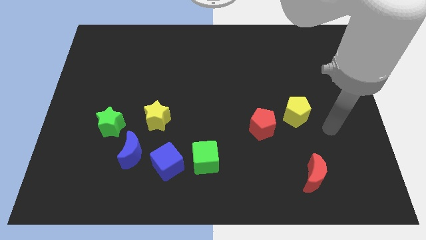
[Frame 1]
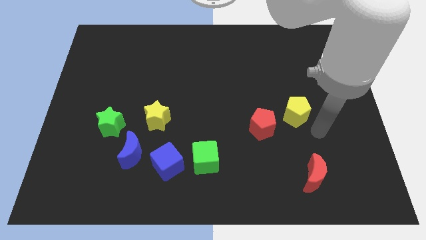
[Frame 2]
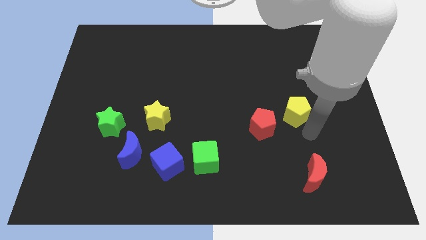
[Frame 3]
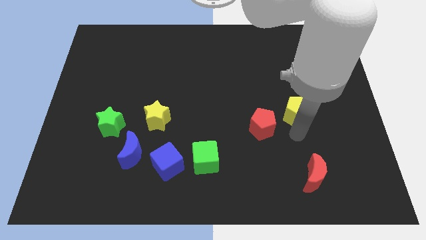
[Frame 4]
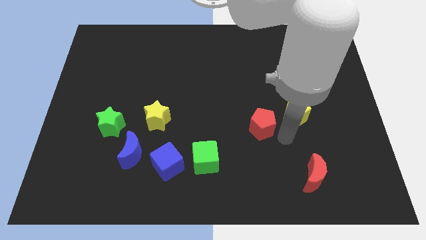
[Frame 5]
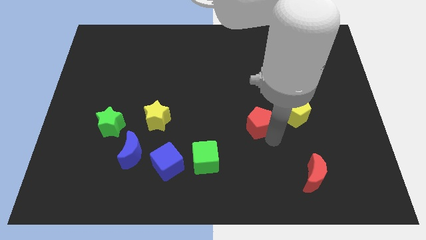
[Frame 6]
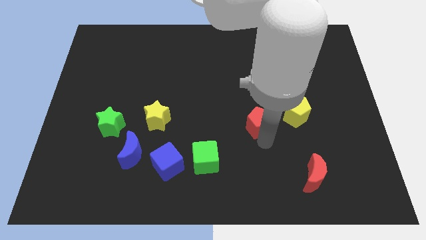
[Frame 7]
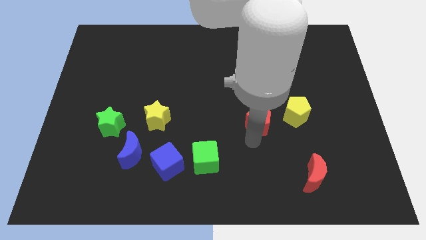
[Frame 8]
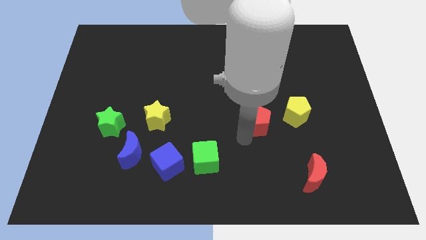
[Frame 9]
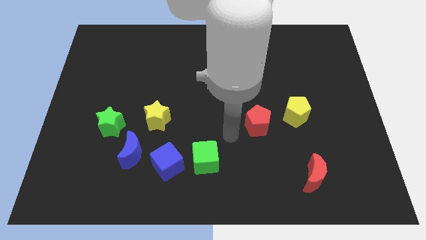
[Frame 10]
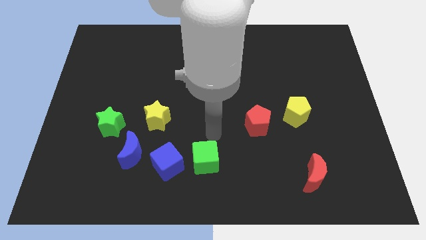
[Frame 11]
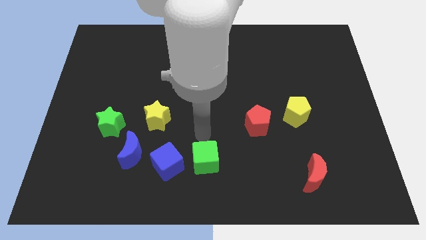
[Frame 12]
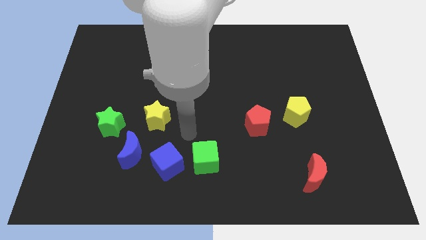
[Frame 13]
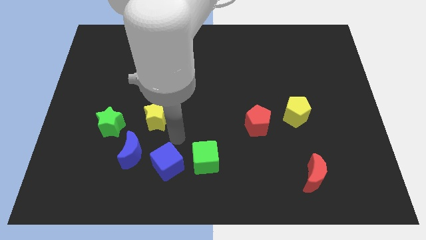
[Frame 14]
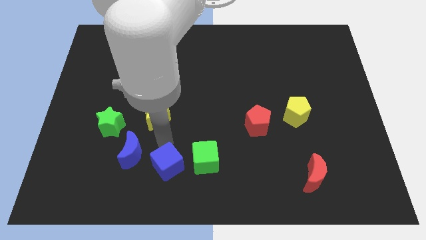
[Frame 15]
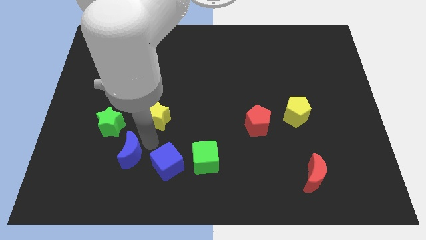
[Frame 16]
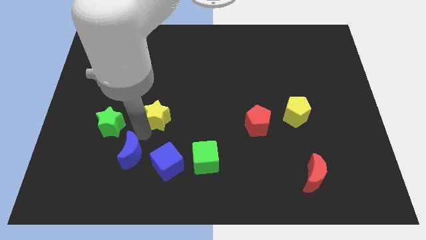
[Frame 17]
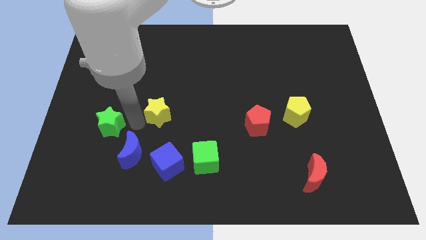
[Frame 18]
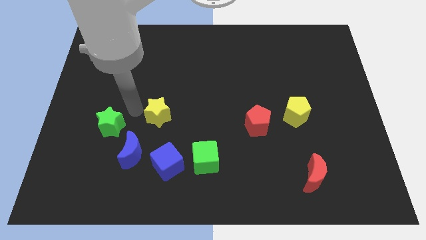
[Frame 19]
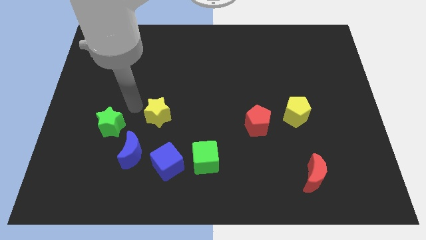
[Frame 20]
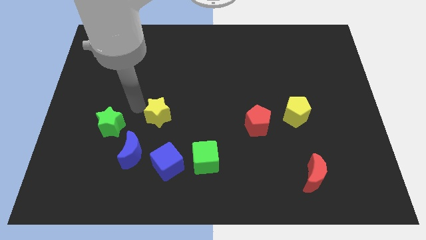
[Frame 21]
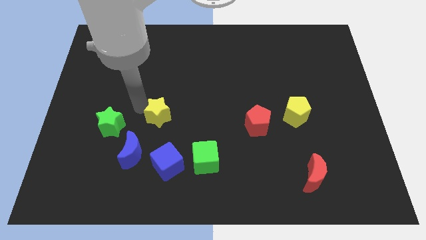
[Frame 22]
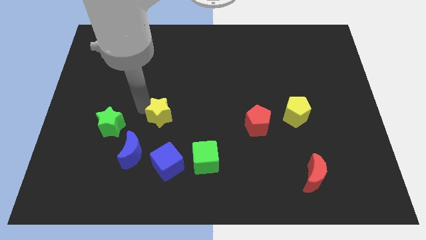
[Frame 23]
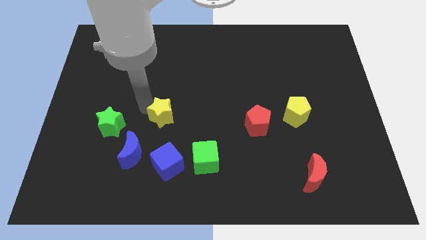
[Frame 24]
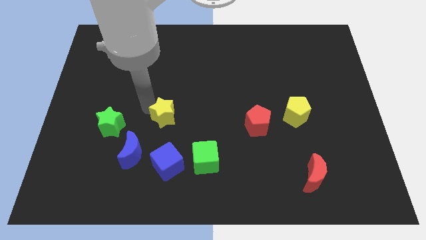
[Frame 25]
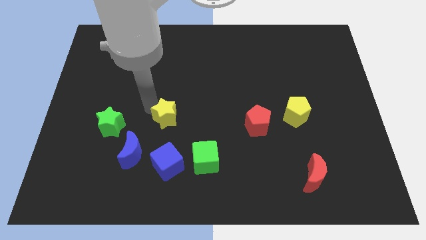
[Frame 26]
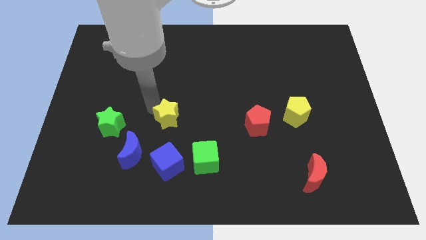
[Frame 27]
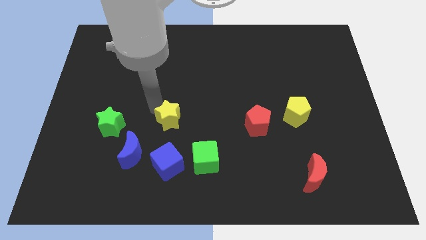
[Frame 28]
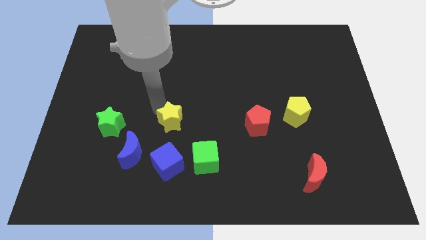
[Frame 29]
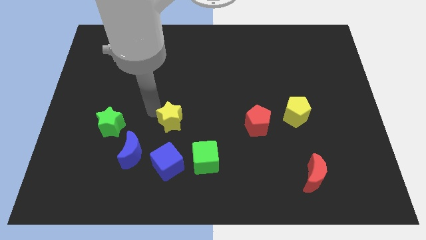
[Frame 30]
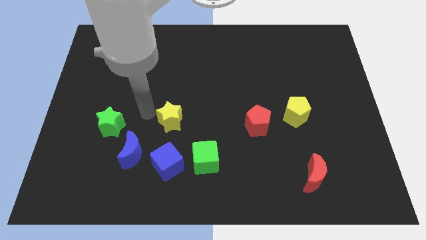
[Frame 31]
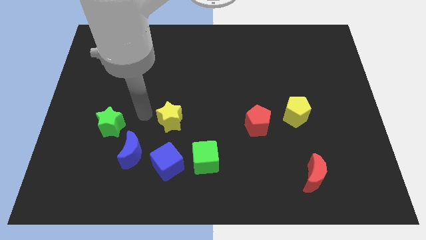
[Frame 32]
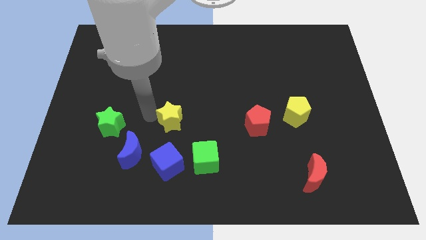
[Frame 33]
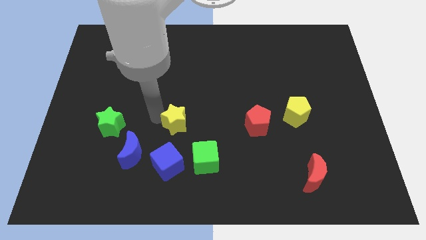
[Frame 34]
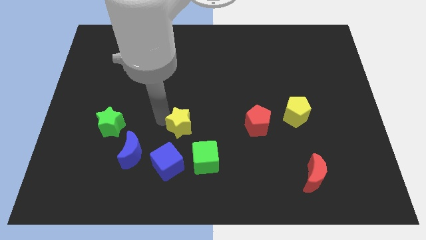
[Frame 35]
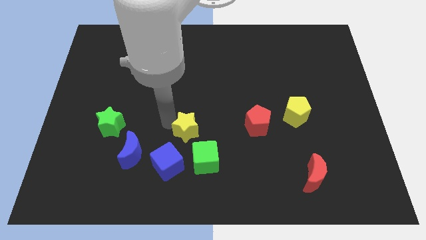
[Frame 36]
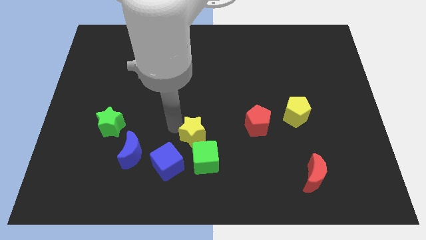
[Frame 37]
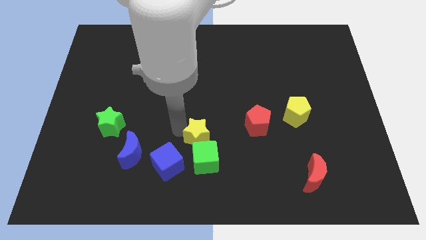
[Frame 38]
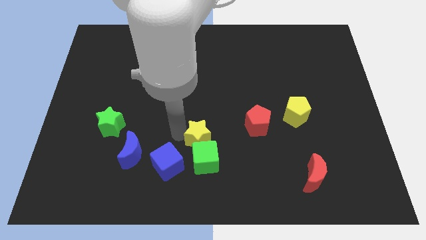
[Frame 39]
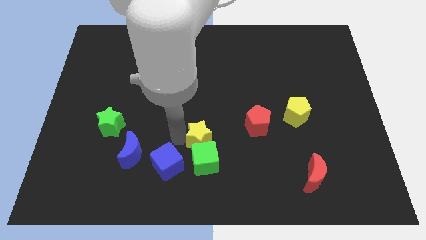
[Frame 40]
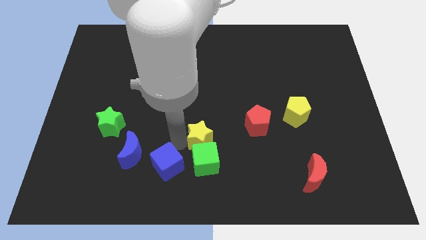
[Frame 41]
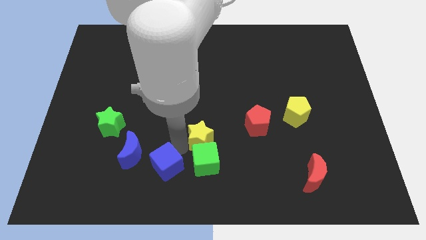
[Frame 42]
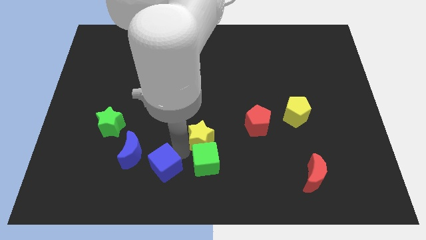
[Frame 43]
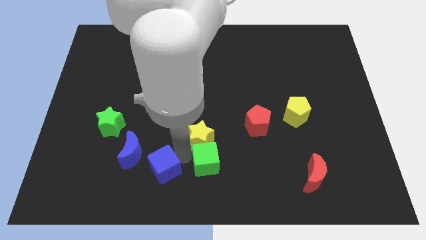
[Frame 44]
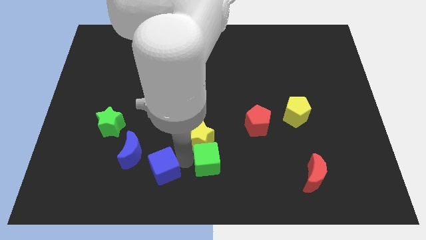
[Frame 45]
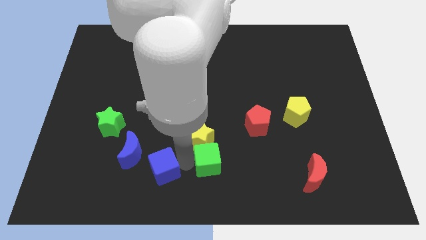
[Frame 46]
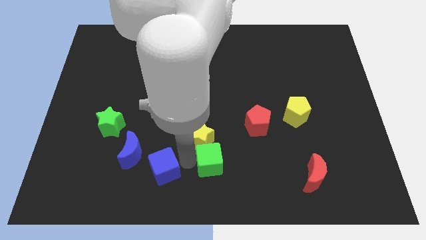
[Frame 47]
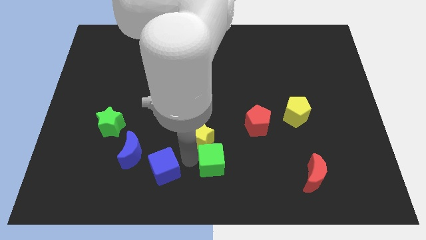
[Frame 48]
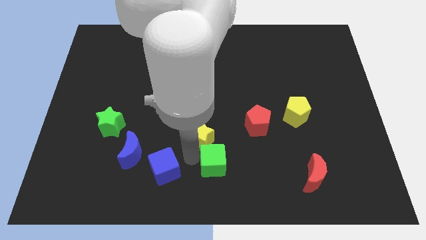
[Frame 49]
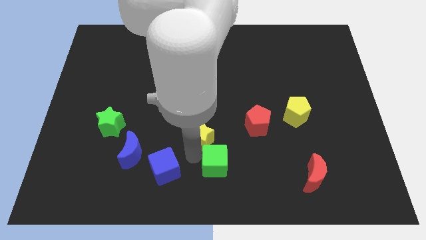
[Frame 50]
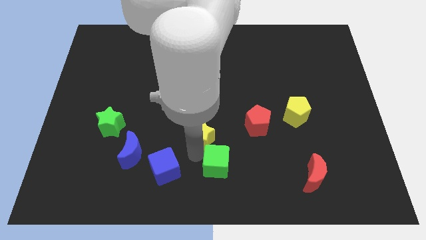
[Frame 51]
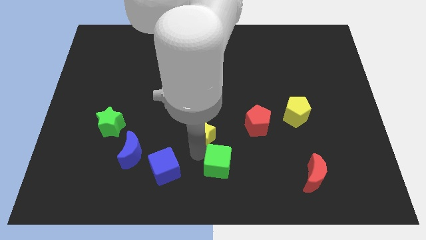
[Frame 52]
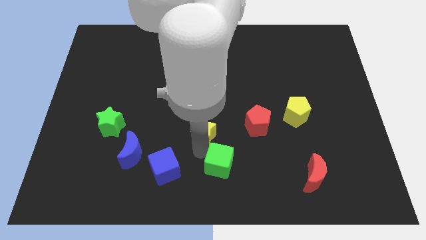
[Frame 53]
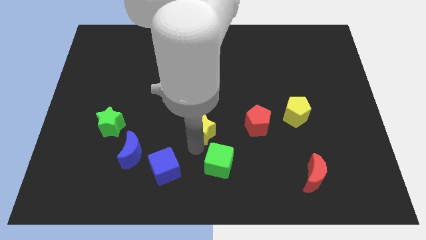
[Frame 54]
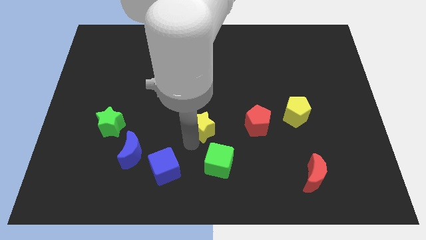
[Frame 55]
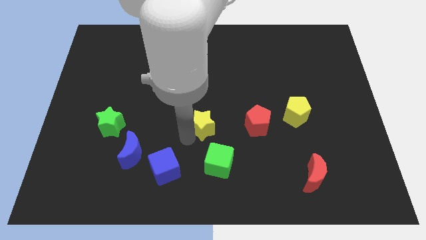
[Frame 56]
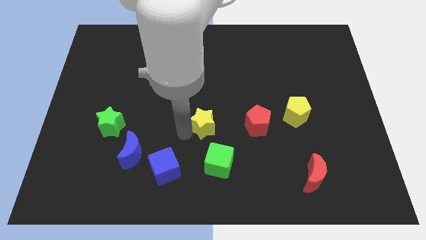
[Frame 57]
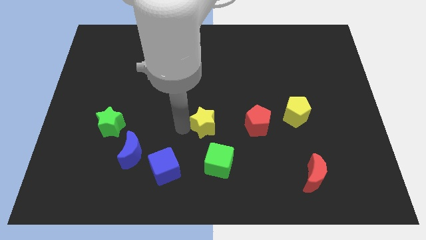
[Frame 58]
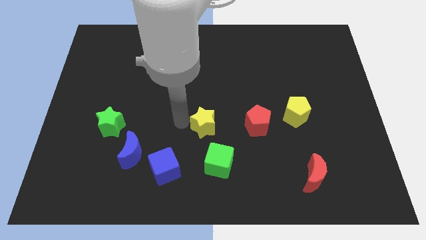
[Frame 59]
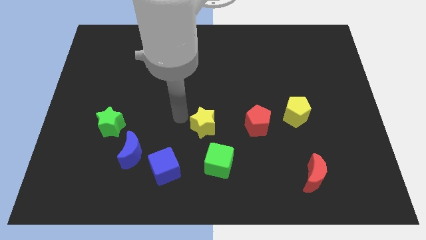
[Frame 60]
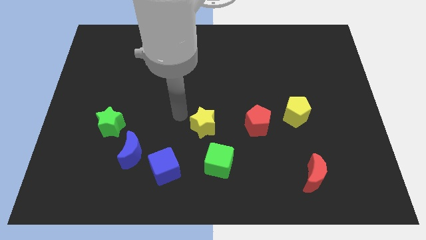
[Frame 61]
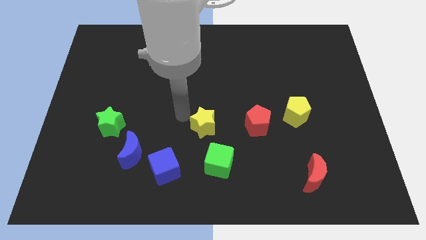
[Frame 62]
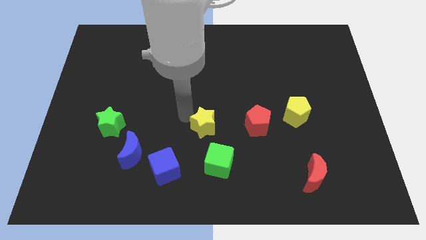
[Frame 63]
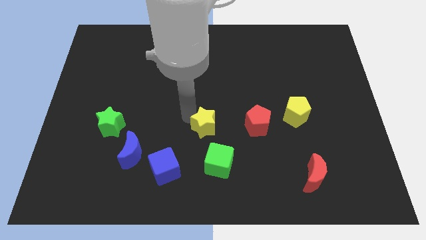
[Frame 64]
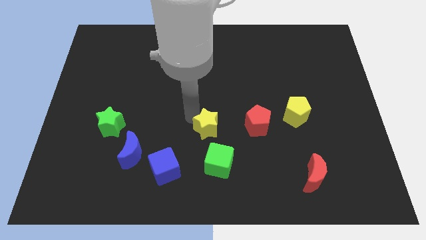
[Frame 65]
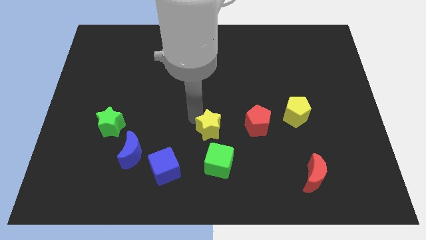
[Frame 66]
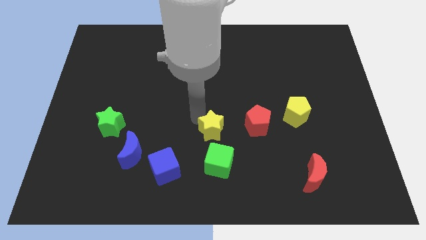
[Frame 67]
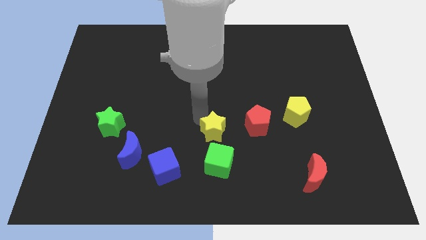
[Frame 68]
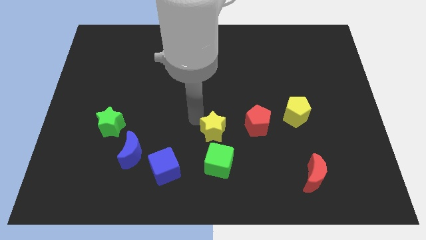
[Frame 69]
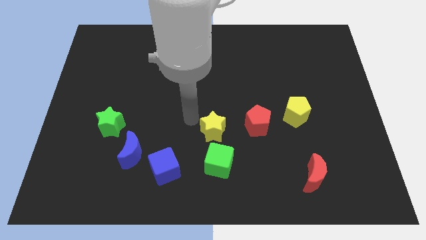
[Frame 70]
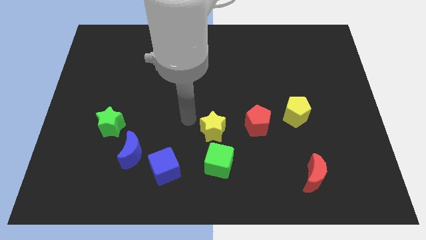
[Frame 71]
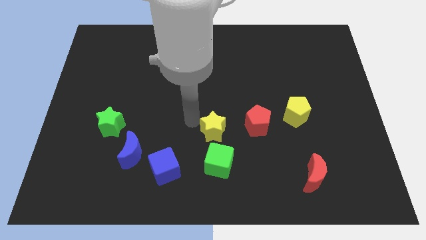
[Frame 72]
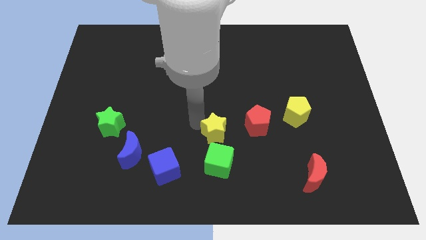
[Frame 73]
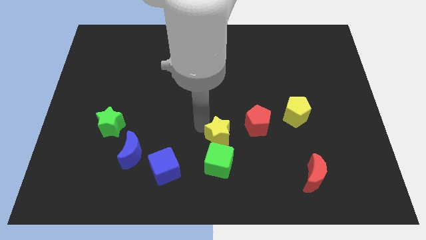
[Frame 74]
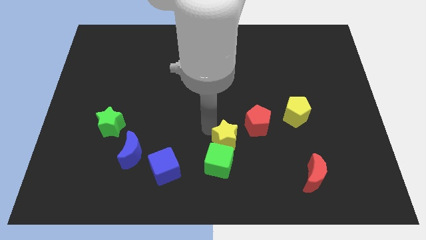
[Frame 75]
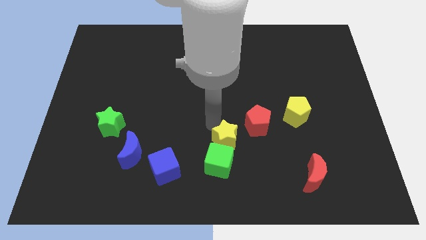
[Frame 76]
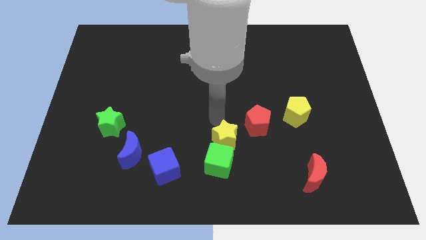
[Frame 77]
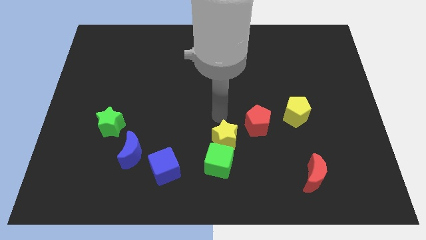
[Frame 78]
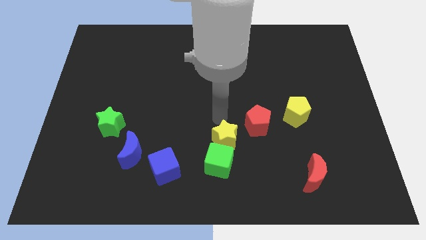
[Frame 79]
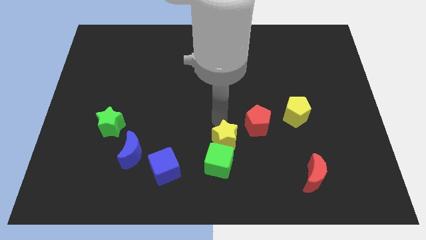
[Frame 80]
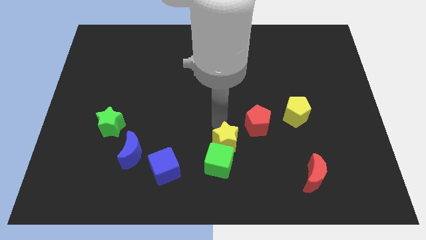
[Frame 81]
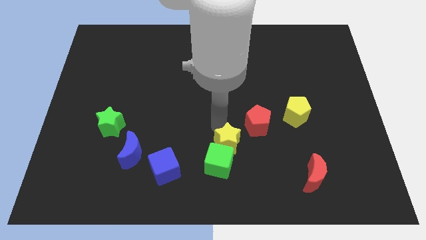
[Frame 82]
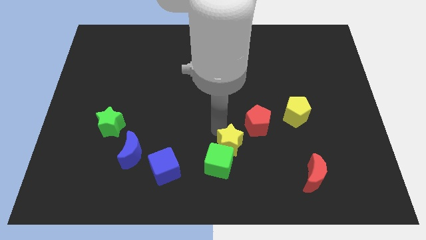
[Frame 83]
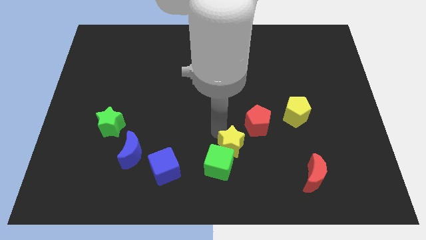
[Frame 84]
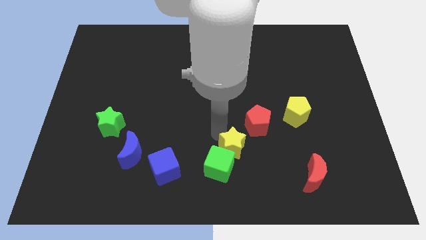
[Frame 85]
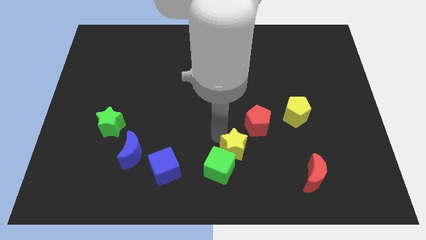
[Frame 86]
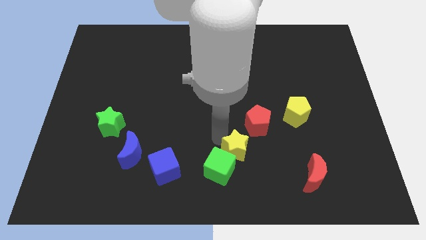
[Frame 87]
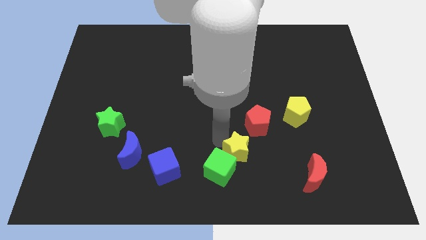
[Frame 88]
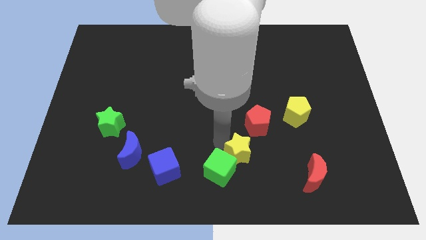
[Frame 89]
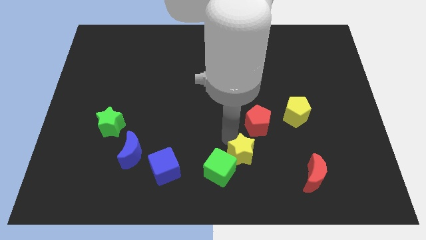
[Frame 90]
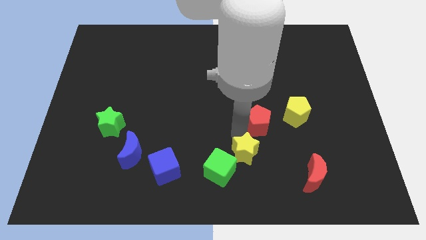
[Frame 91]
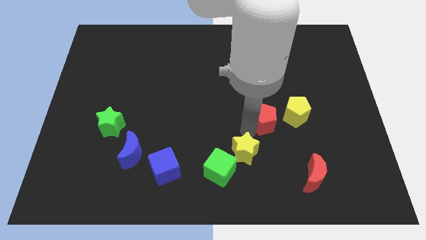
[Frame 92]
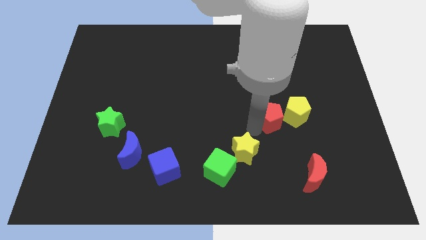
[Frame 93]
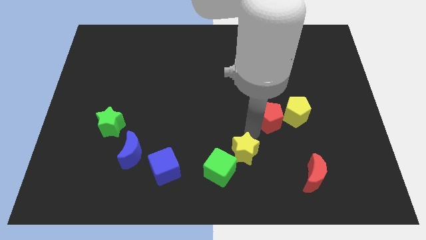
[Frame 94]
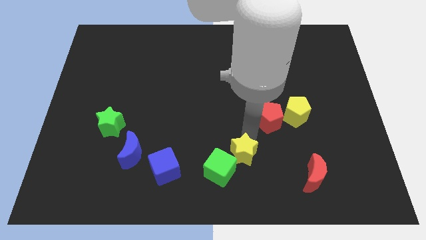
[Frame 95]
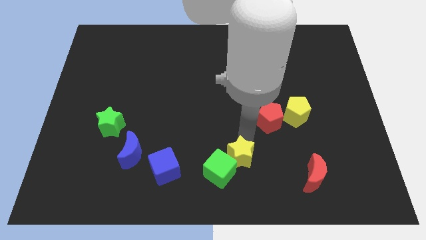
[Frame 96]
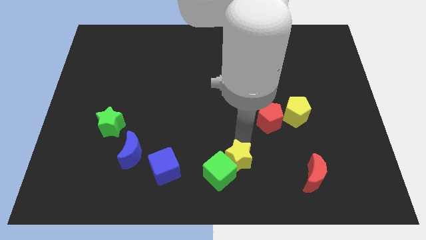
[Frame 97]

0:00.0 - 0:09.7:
move the yellow star to the bottom
